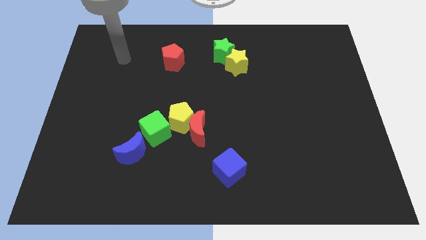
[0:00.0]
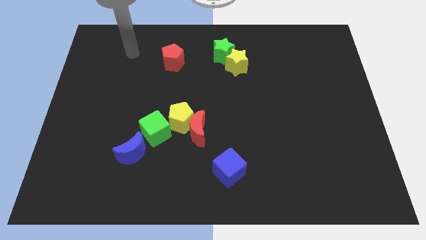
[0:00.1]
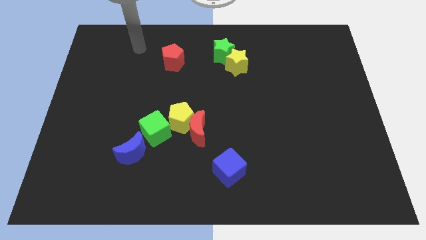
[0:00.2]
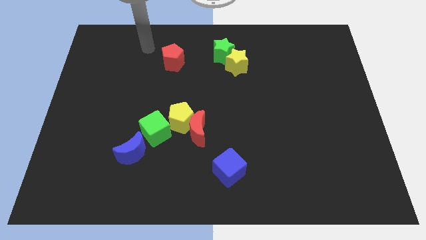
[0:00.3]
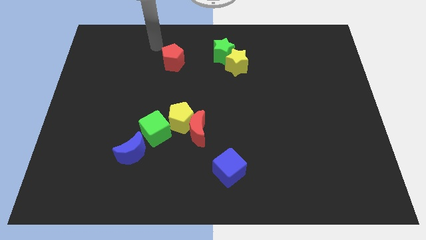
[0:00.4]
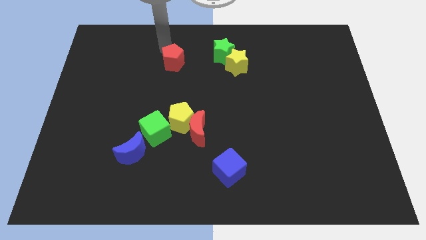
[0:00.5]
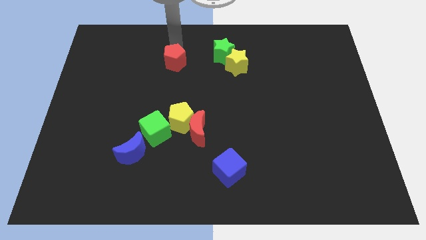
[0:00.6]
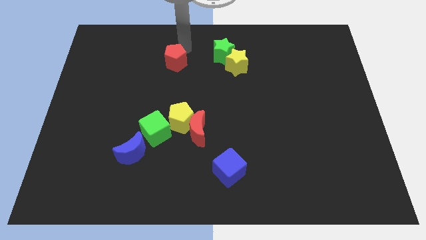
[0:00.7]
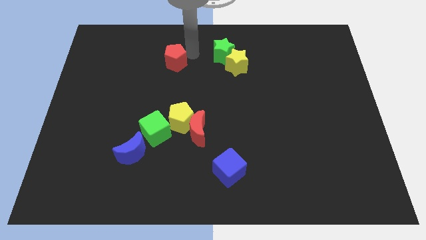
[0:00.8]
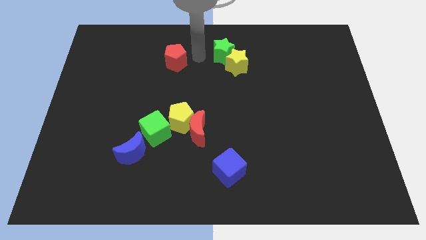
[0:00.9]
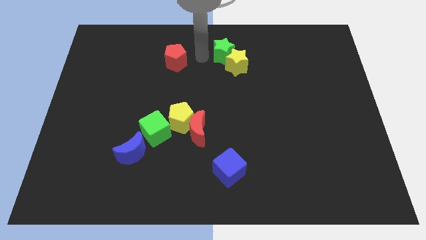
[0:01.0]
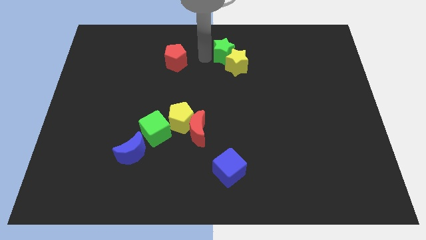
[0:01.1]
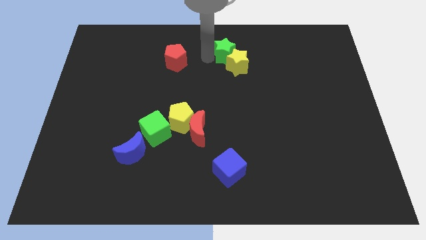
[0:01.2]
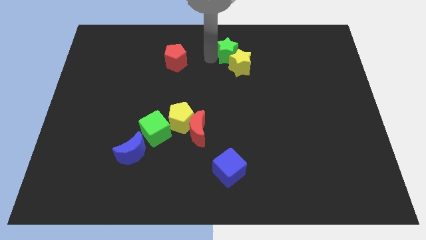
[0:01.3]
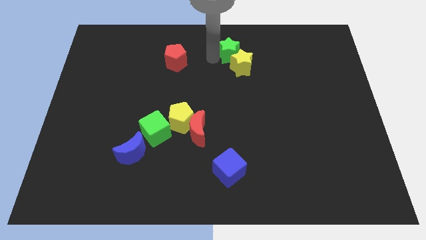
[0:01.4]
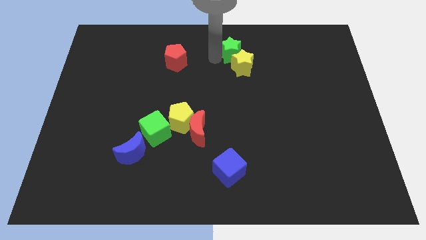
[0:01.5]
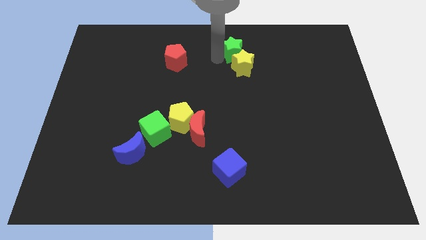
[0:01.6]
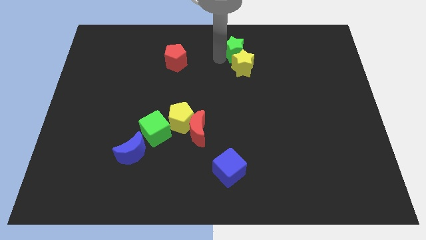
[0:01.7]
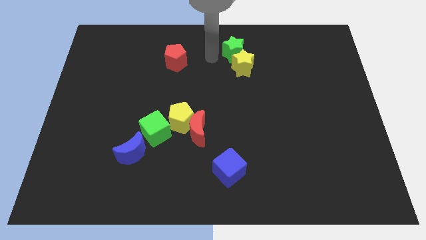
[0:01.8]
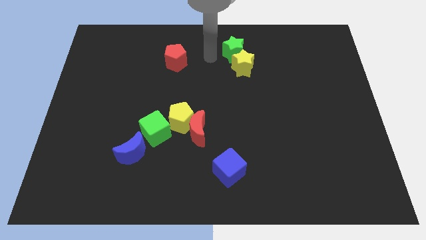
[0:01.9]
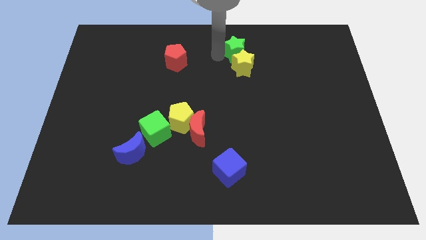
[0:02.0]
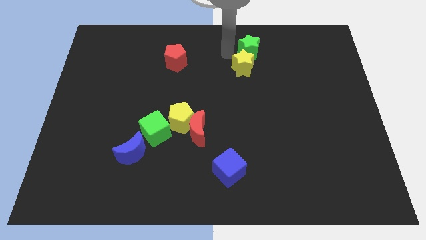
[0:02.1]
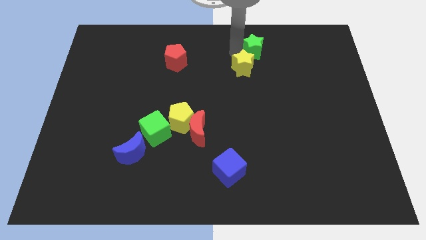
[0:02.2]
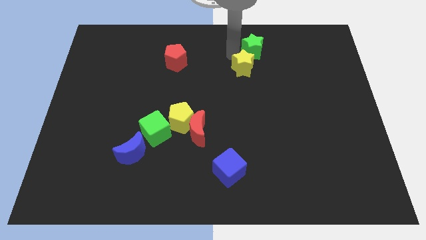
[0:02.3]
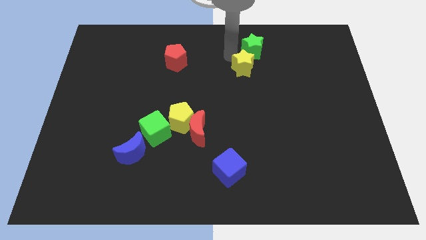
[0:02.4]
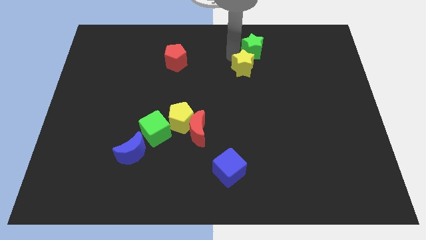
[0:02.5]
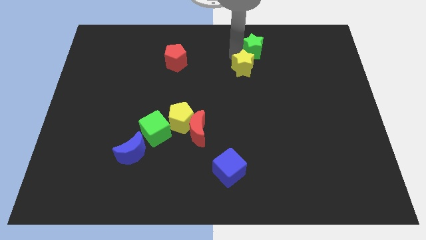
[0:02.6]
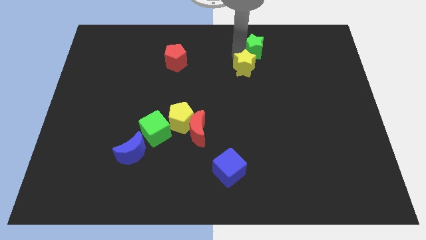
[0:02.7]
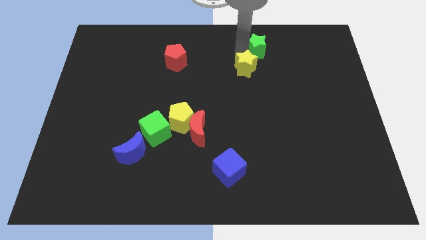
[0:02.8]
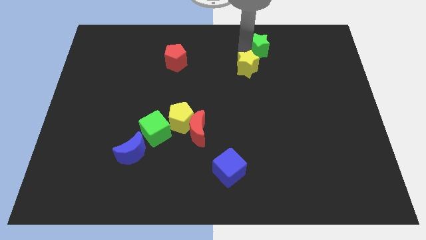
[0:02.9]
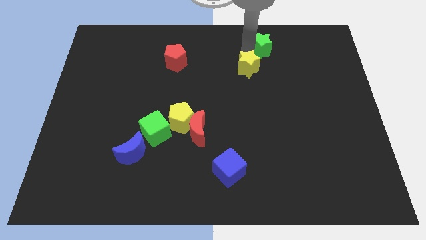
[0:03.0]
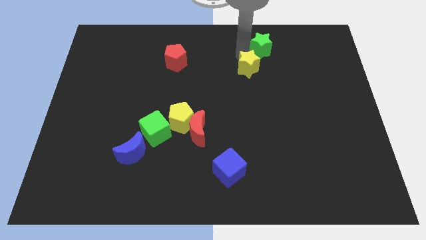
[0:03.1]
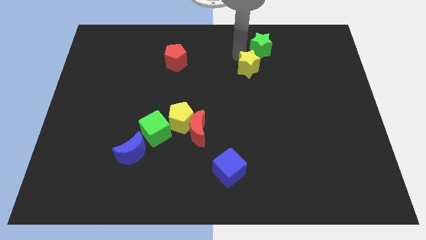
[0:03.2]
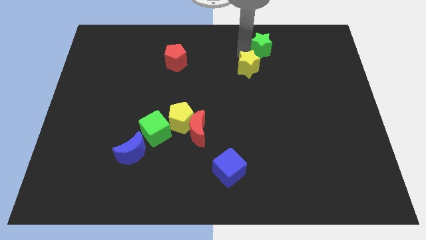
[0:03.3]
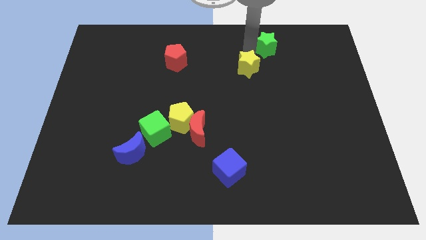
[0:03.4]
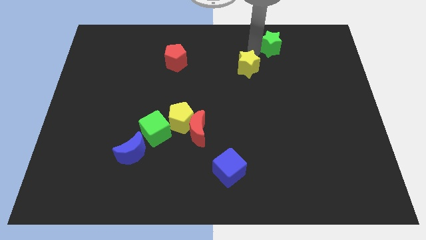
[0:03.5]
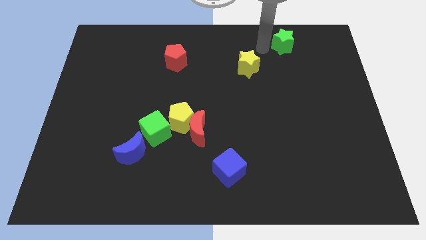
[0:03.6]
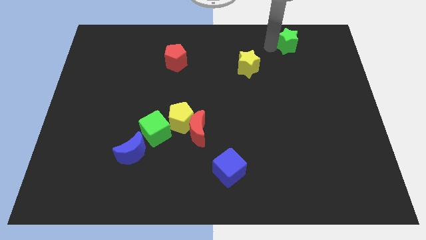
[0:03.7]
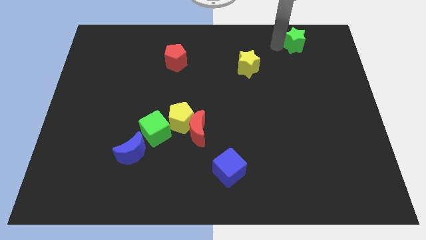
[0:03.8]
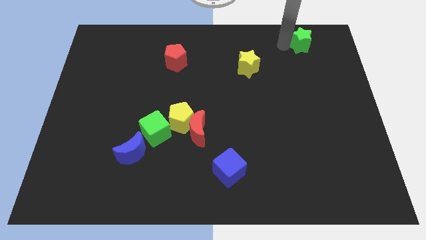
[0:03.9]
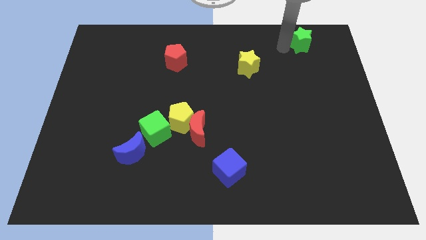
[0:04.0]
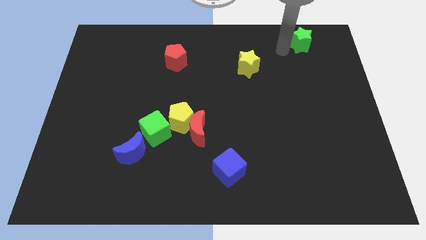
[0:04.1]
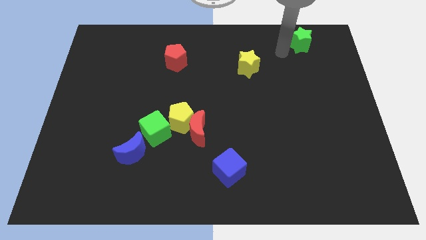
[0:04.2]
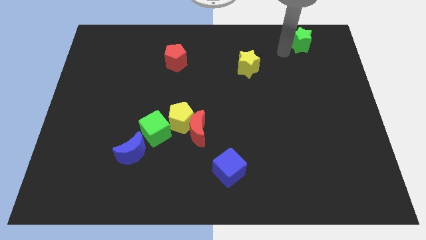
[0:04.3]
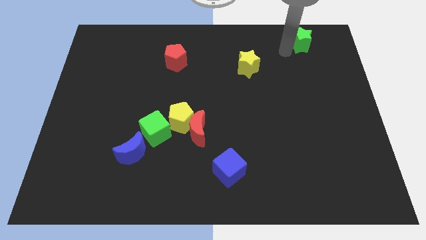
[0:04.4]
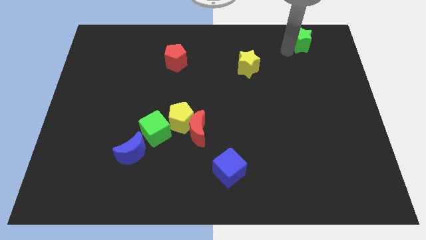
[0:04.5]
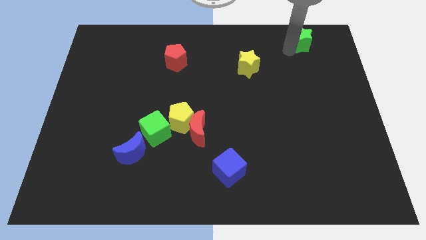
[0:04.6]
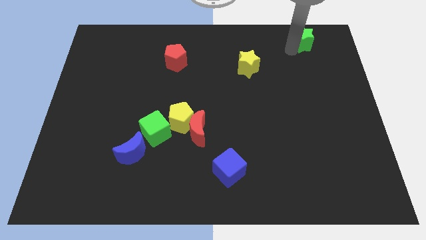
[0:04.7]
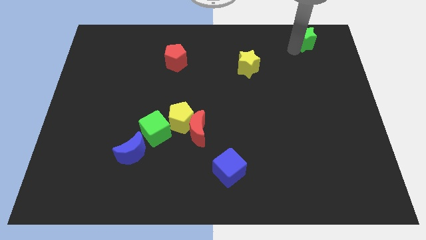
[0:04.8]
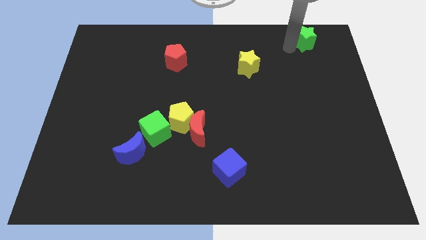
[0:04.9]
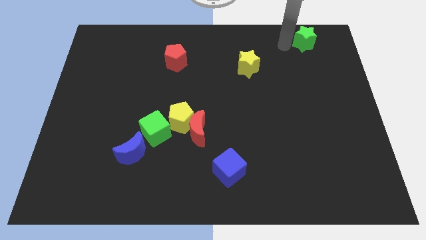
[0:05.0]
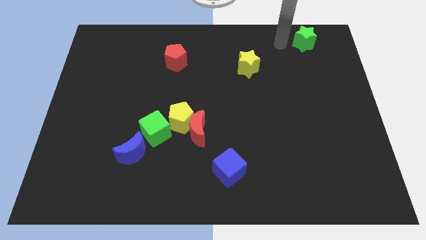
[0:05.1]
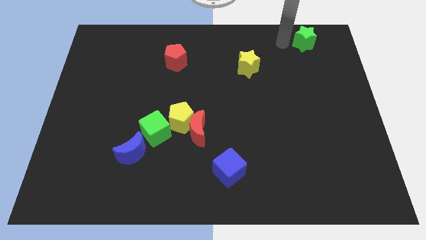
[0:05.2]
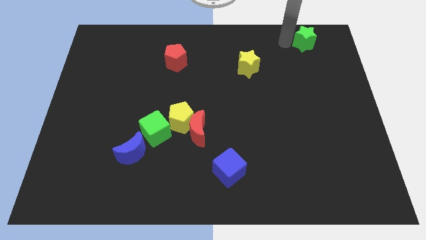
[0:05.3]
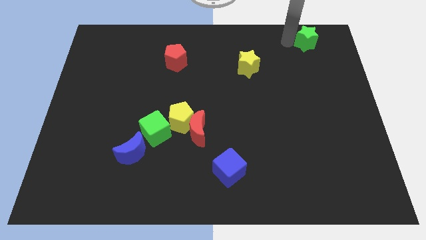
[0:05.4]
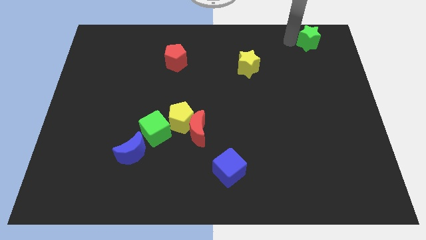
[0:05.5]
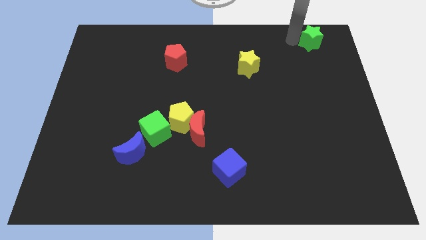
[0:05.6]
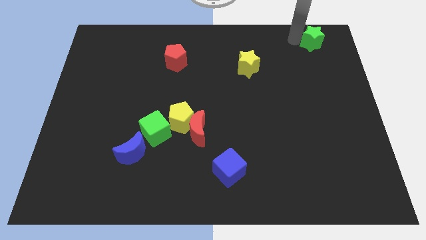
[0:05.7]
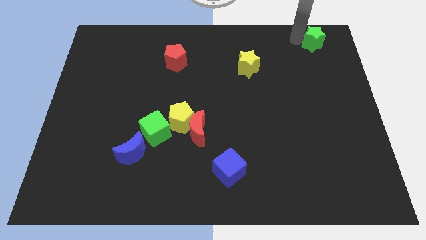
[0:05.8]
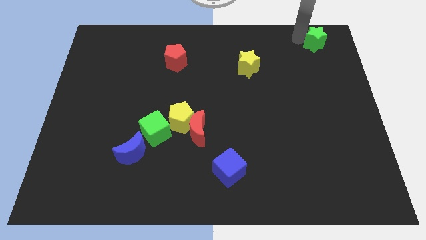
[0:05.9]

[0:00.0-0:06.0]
slide the green star to the upper right corner
